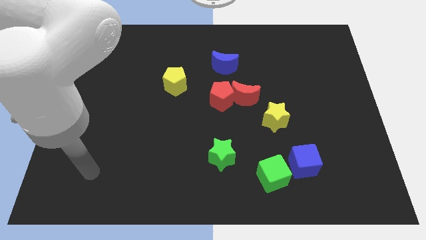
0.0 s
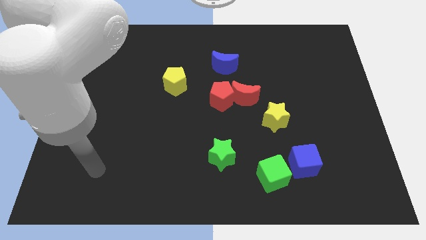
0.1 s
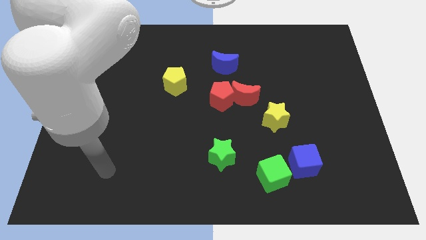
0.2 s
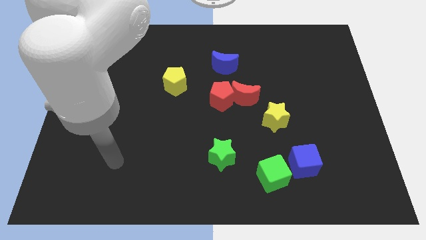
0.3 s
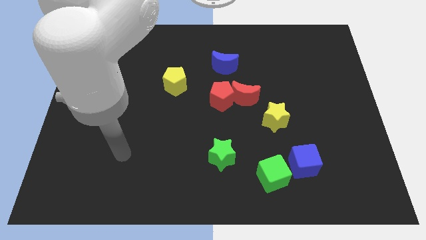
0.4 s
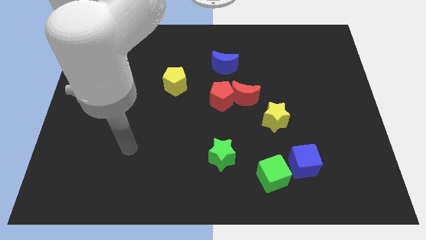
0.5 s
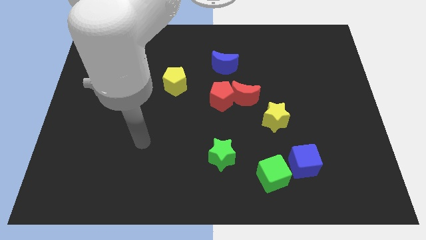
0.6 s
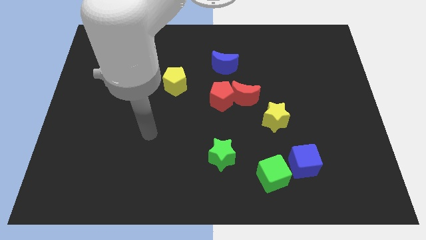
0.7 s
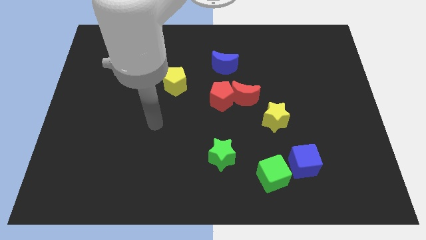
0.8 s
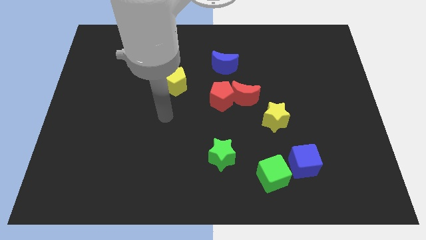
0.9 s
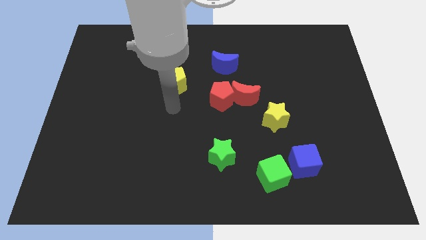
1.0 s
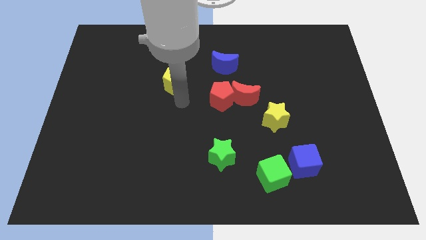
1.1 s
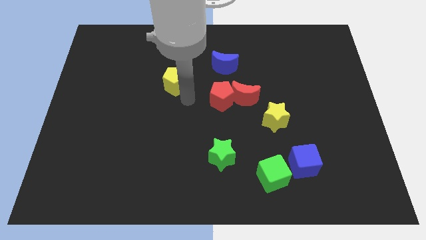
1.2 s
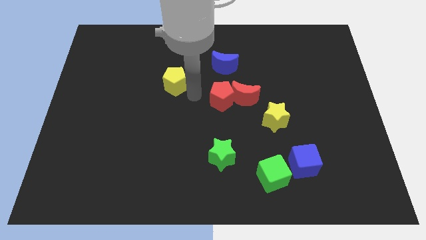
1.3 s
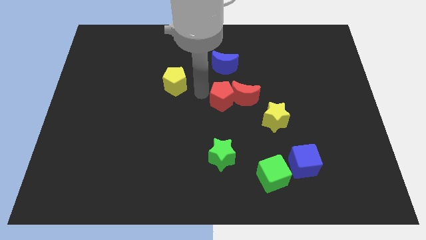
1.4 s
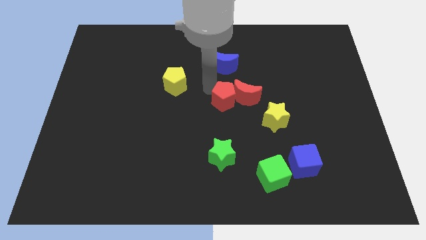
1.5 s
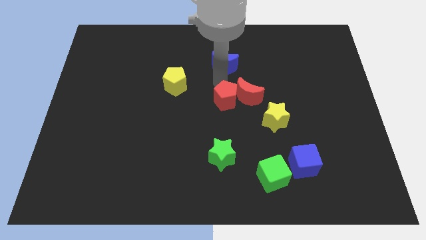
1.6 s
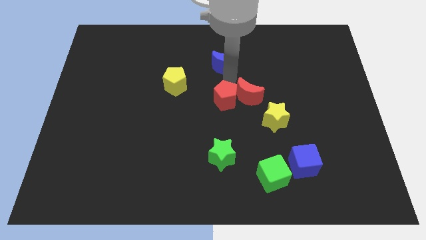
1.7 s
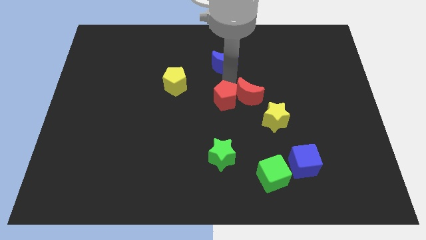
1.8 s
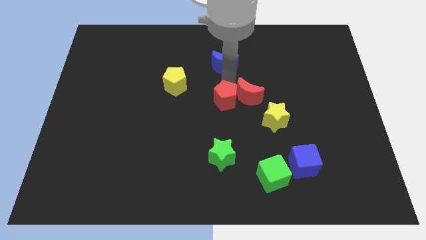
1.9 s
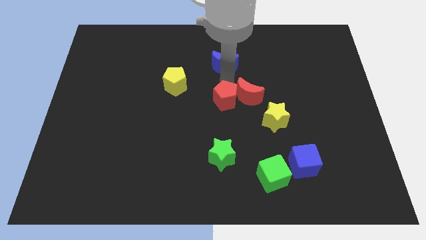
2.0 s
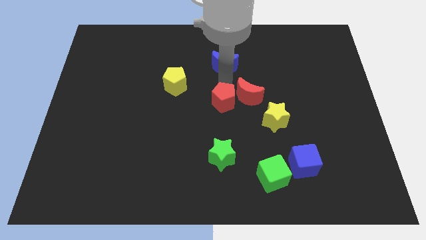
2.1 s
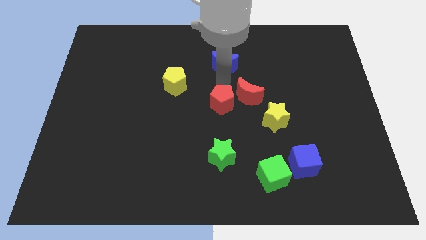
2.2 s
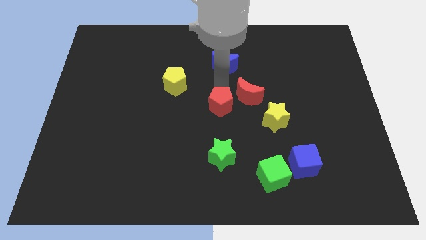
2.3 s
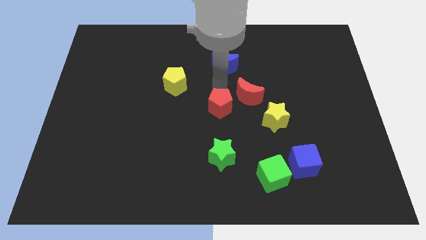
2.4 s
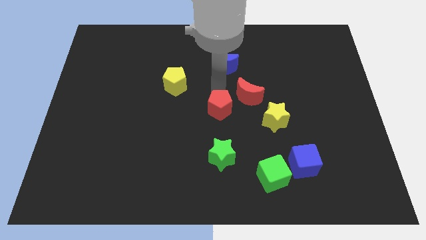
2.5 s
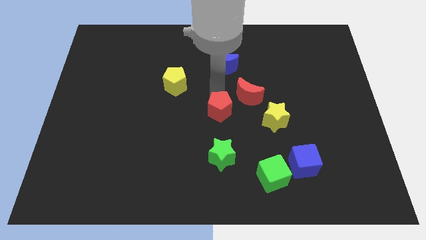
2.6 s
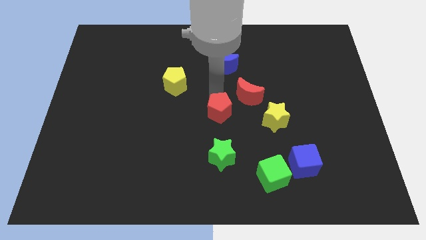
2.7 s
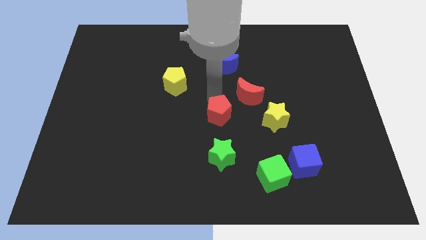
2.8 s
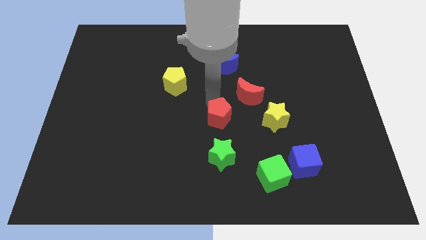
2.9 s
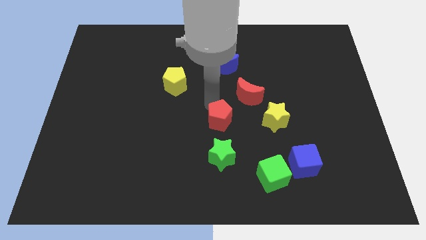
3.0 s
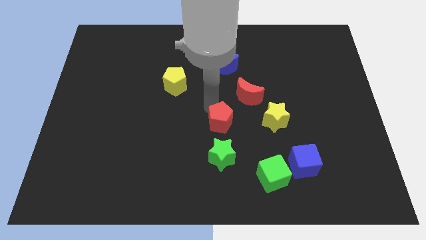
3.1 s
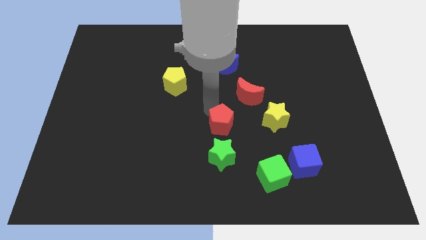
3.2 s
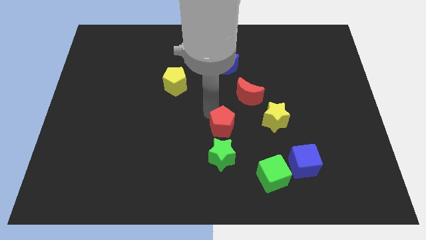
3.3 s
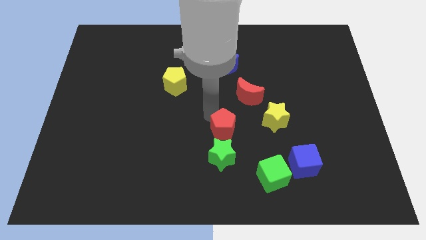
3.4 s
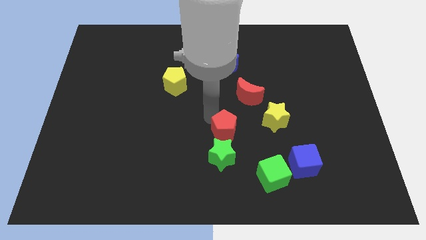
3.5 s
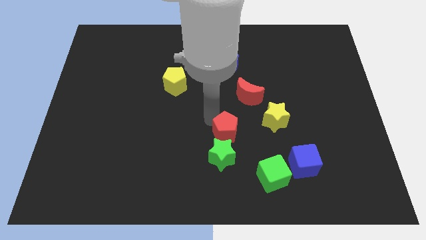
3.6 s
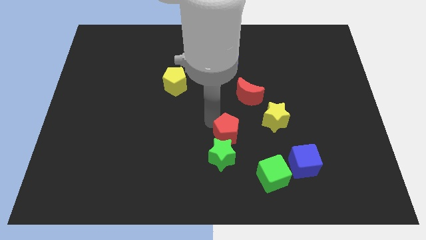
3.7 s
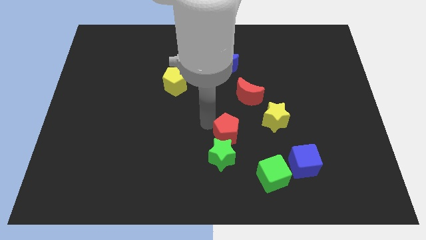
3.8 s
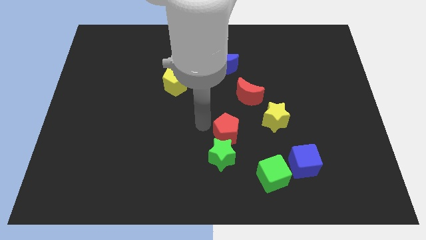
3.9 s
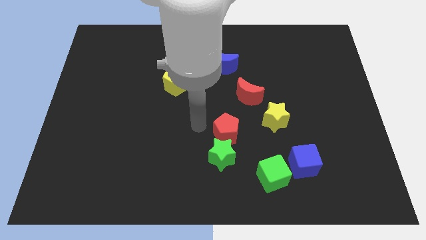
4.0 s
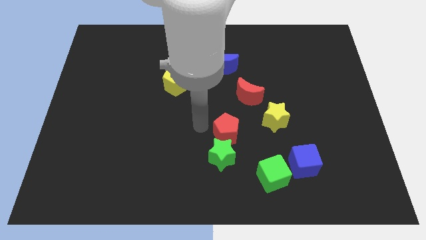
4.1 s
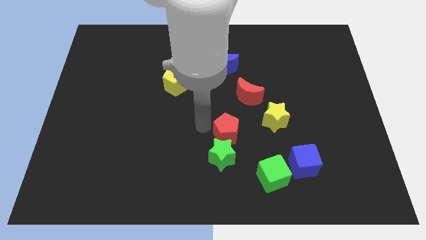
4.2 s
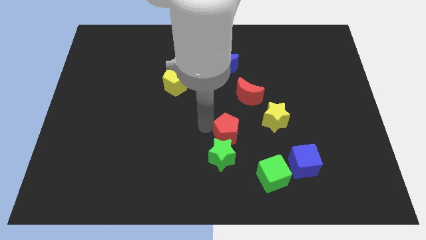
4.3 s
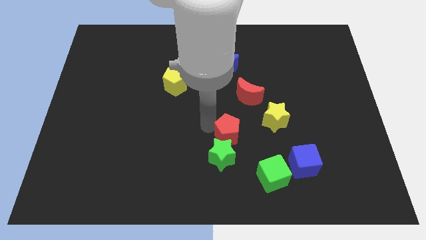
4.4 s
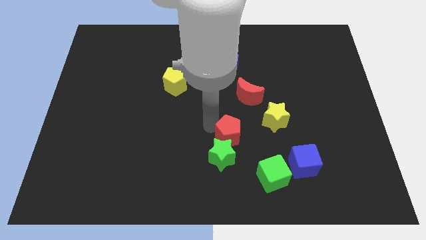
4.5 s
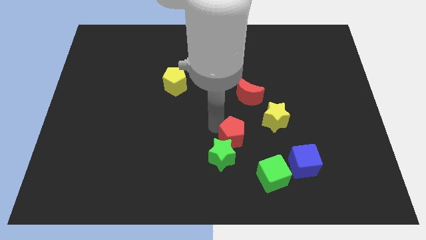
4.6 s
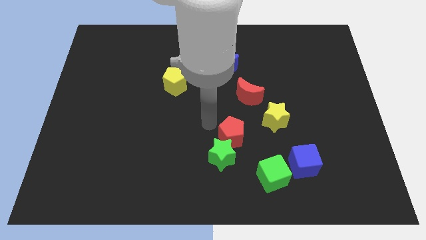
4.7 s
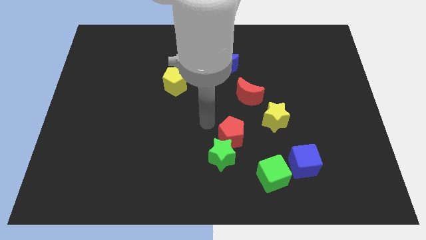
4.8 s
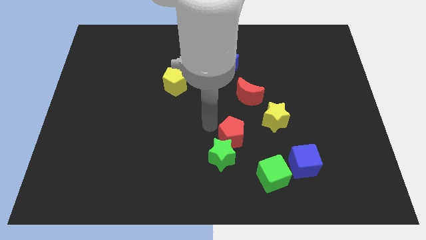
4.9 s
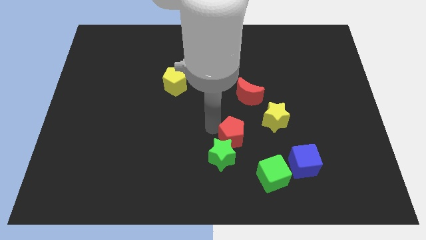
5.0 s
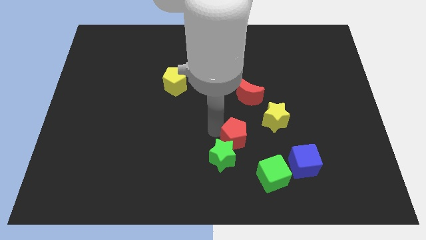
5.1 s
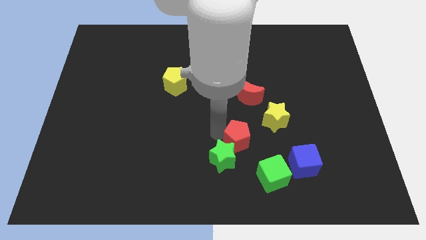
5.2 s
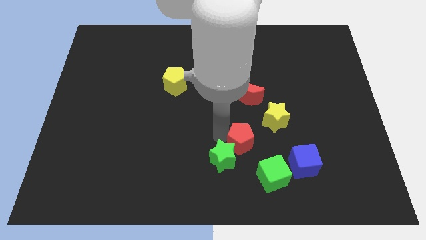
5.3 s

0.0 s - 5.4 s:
move the red pentagon right of the green star

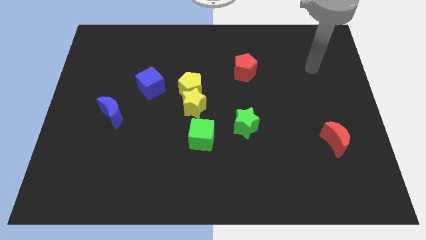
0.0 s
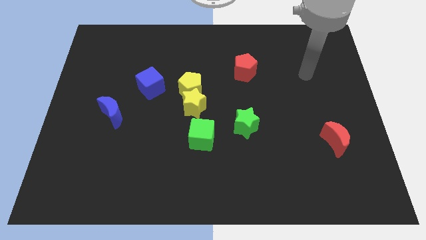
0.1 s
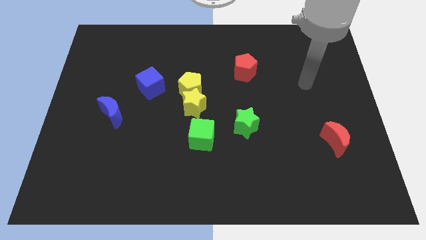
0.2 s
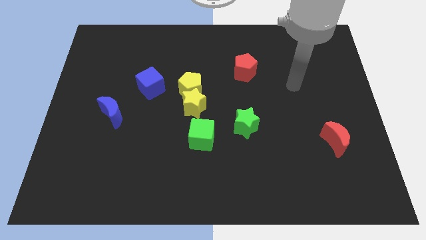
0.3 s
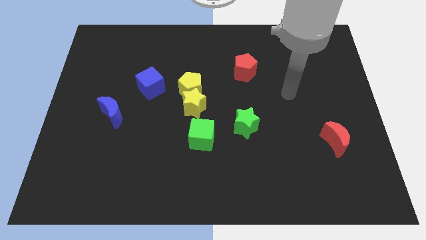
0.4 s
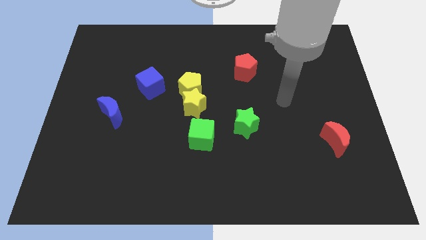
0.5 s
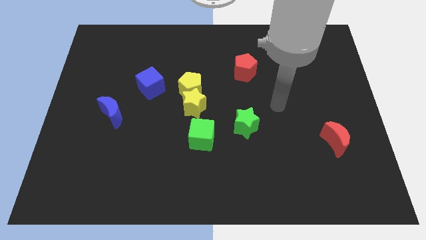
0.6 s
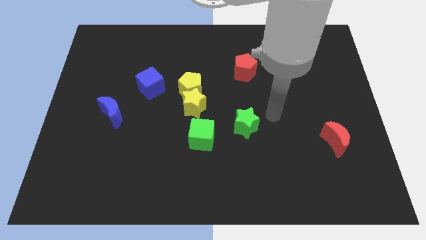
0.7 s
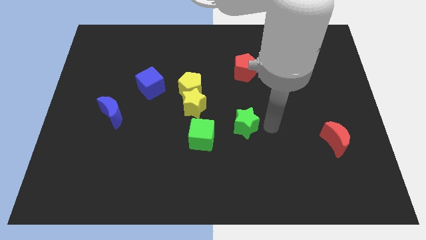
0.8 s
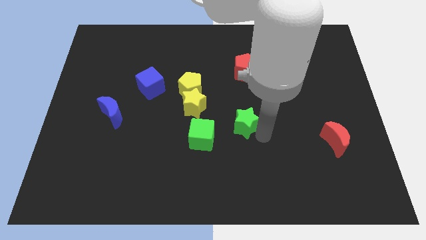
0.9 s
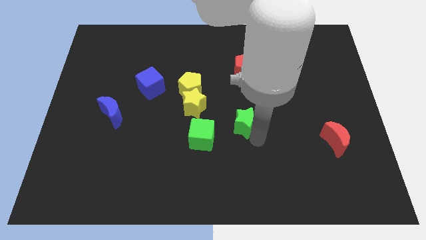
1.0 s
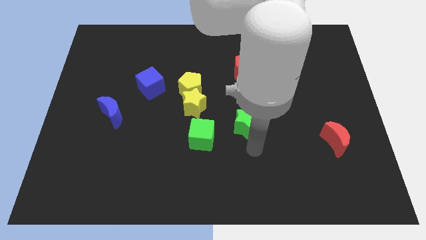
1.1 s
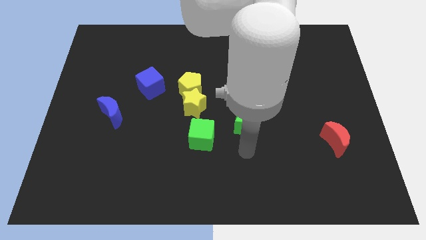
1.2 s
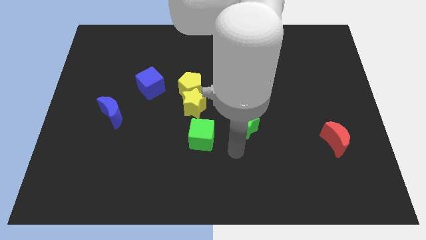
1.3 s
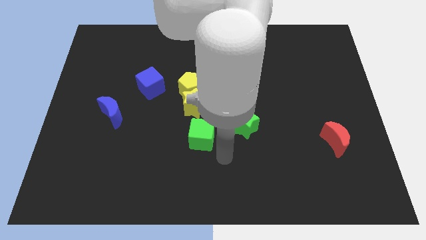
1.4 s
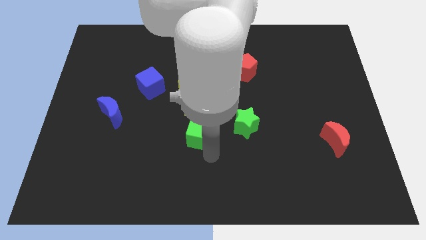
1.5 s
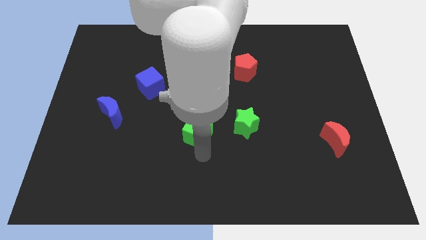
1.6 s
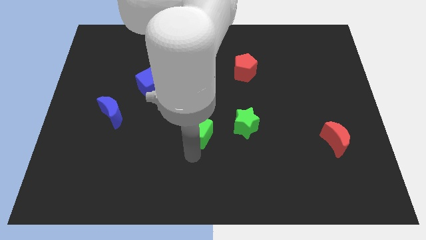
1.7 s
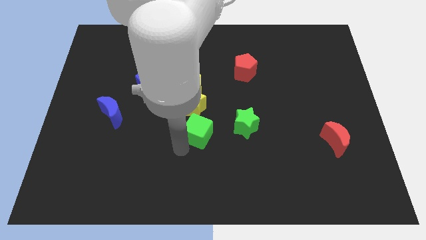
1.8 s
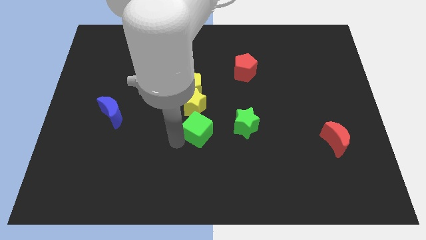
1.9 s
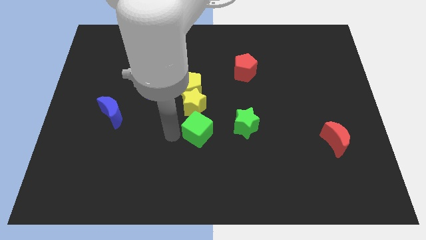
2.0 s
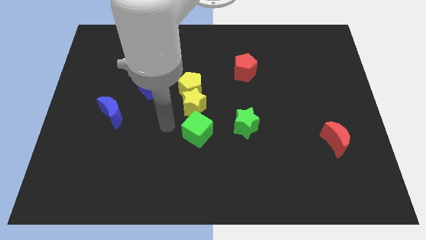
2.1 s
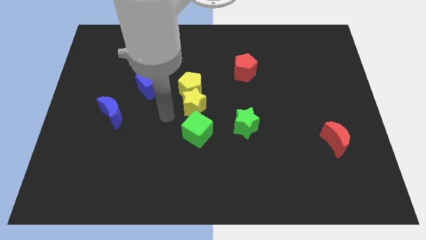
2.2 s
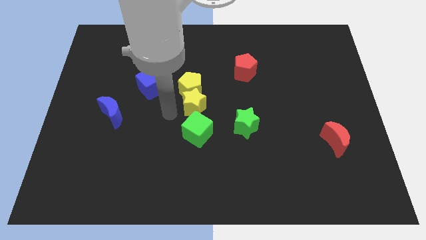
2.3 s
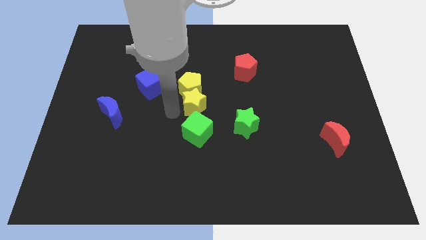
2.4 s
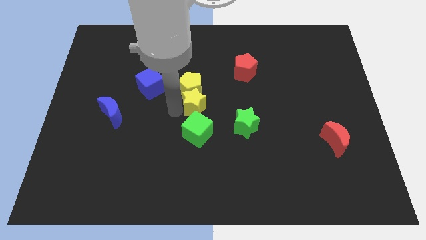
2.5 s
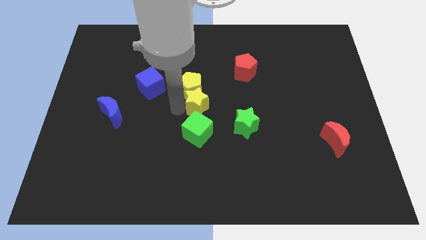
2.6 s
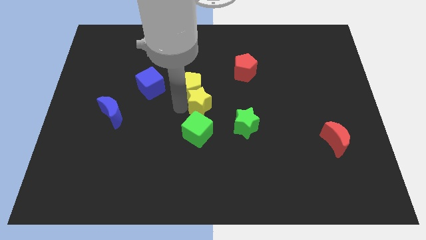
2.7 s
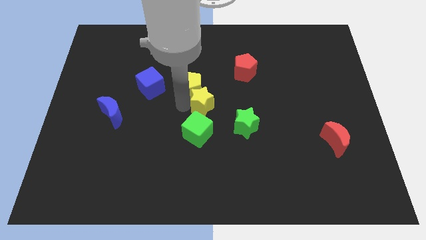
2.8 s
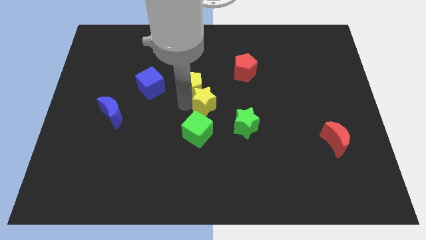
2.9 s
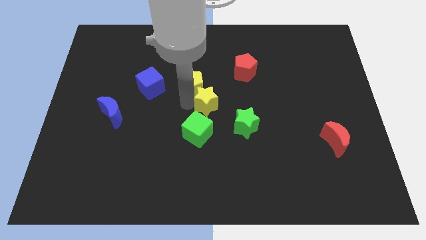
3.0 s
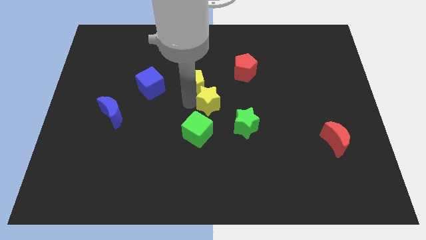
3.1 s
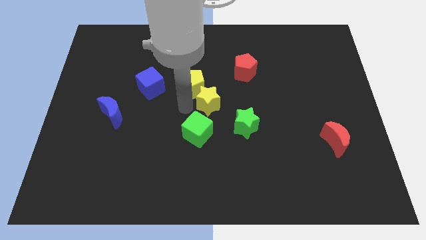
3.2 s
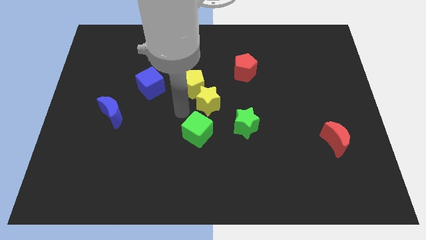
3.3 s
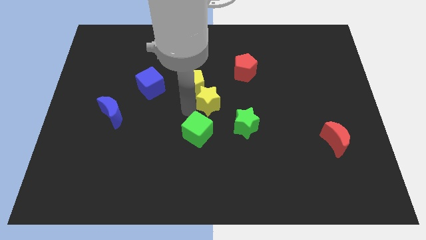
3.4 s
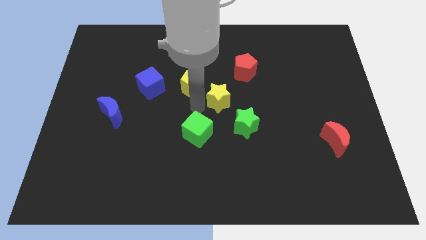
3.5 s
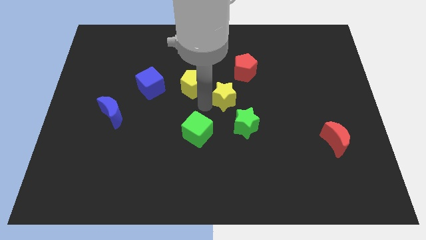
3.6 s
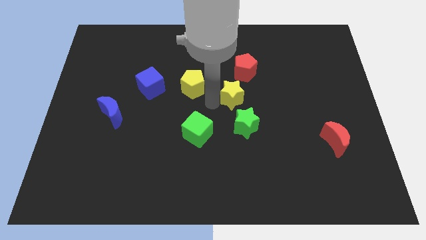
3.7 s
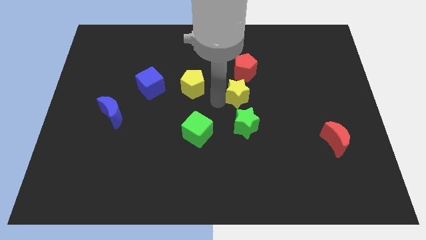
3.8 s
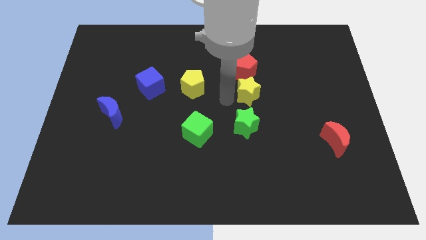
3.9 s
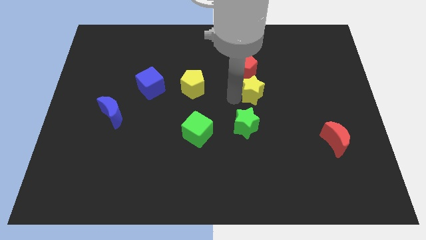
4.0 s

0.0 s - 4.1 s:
slide the yellow star to the bottom right of the red pentagon
